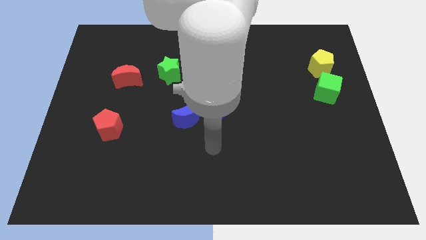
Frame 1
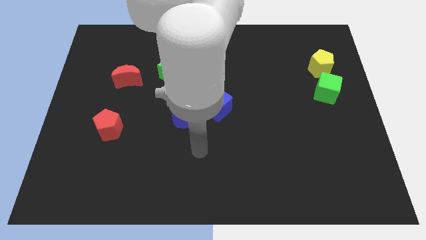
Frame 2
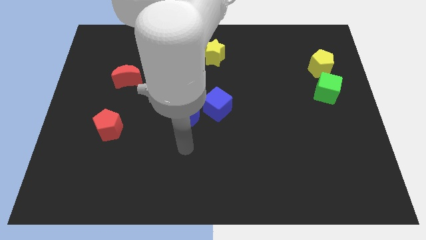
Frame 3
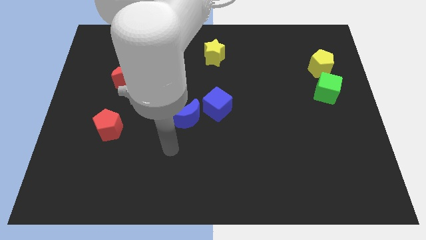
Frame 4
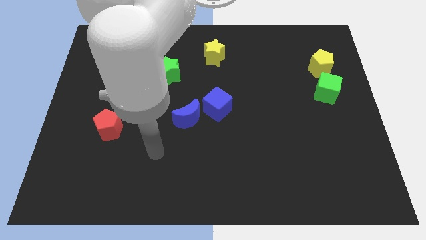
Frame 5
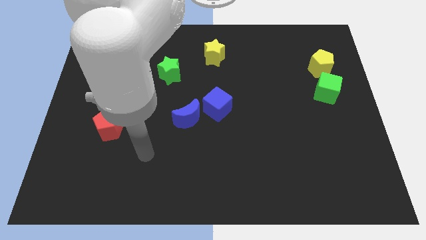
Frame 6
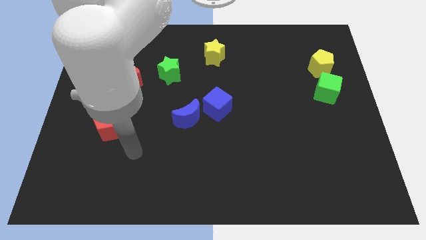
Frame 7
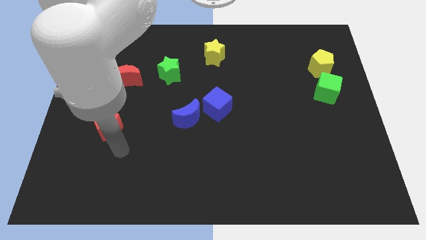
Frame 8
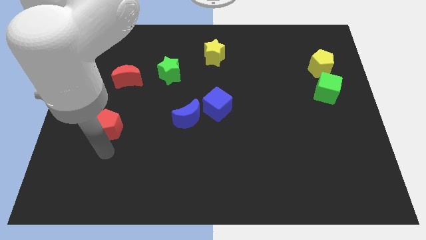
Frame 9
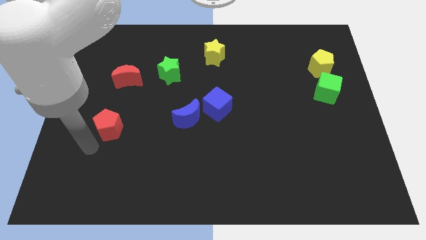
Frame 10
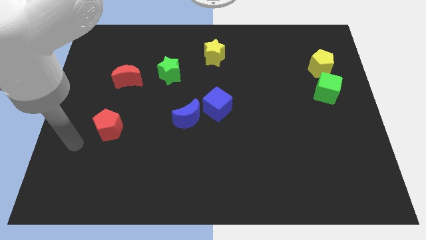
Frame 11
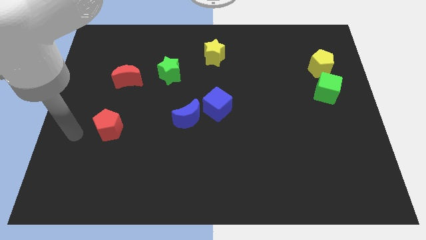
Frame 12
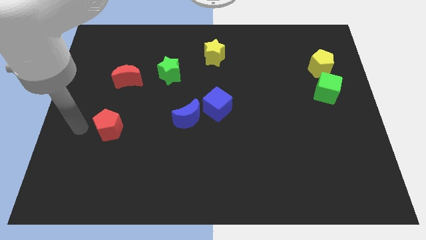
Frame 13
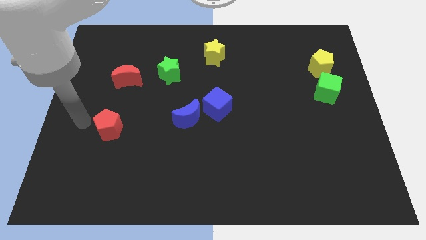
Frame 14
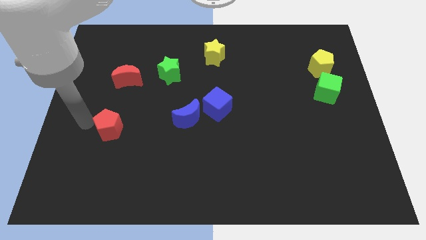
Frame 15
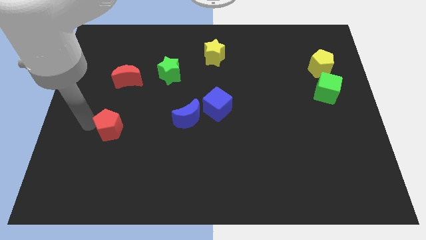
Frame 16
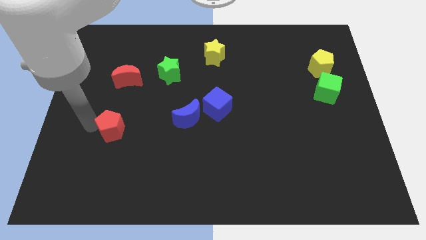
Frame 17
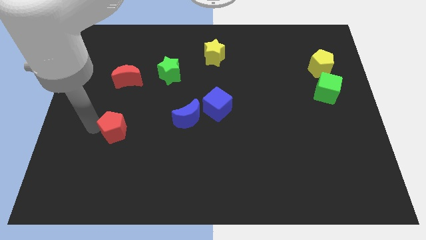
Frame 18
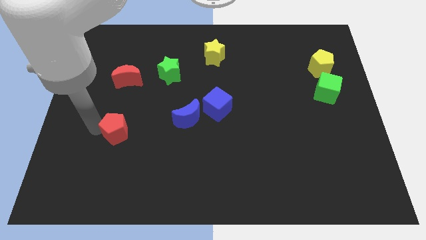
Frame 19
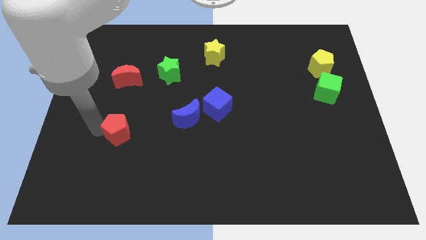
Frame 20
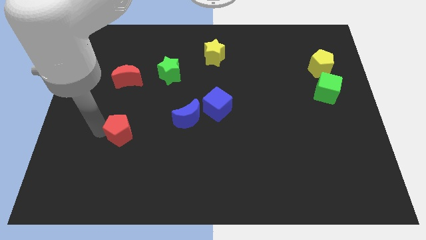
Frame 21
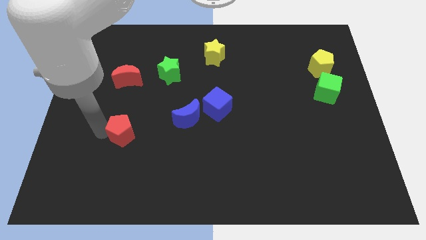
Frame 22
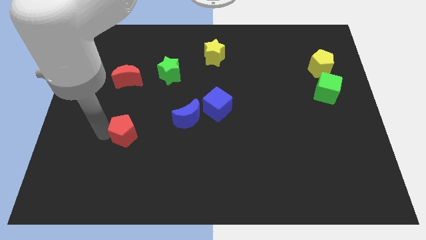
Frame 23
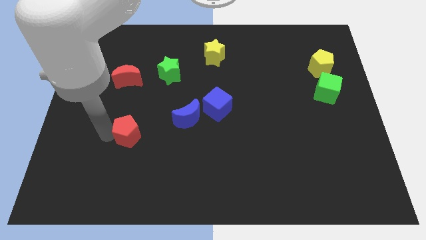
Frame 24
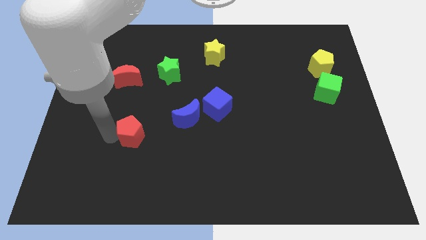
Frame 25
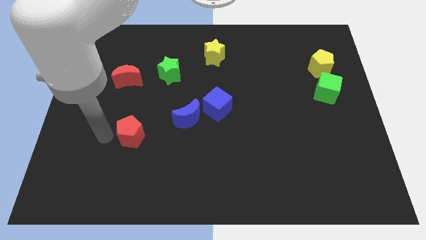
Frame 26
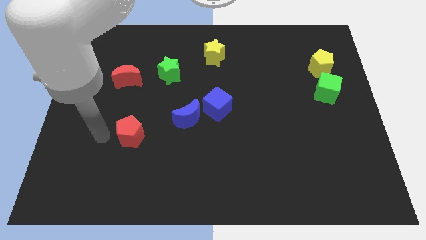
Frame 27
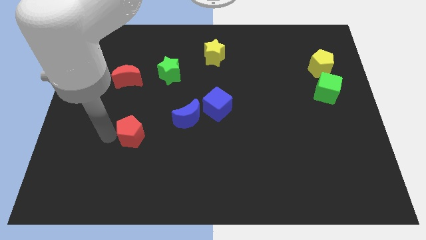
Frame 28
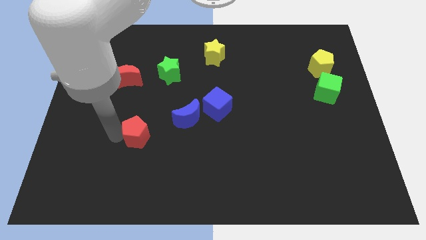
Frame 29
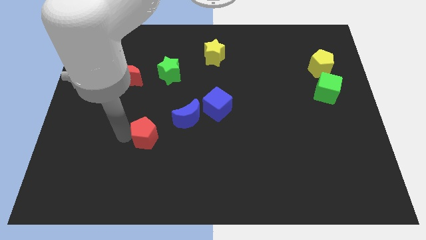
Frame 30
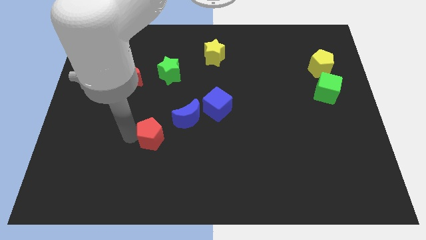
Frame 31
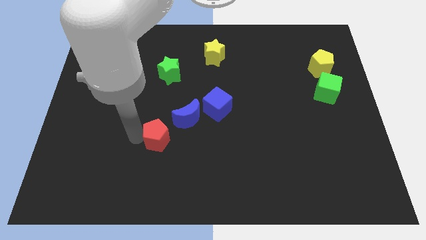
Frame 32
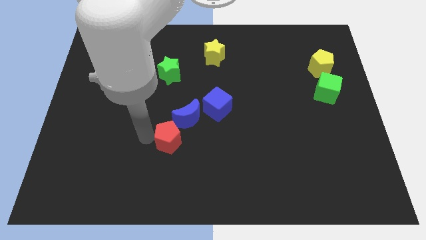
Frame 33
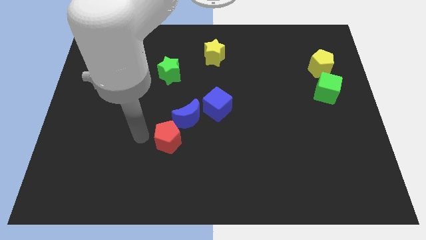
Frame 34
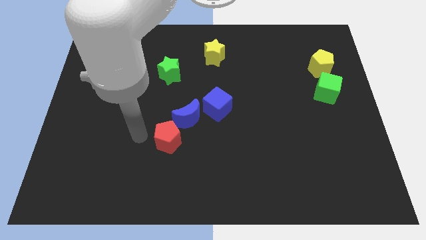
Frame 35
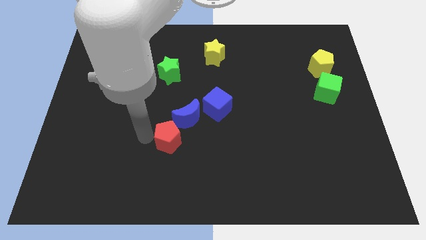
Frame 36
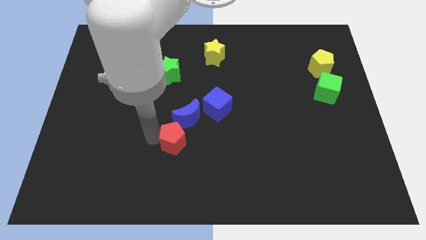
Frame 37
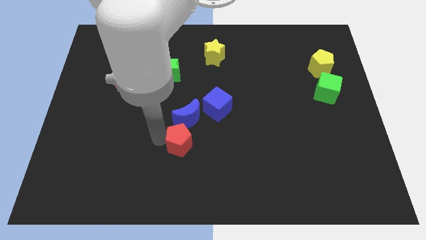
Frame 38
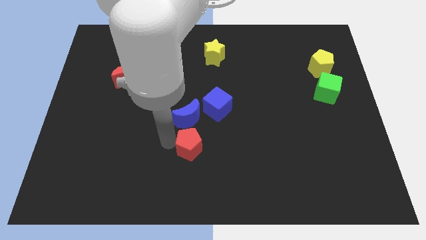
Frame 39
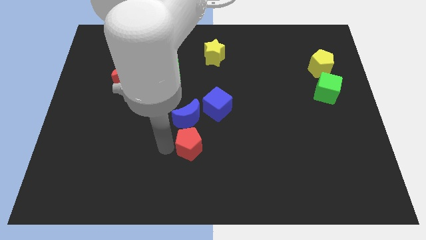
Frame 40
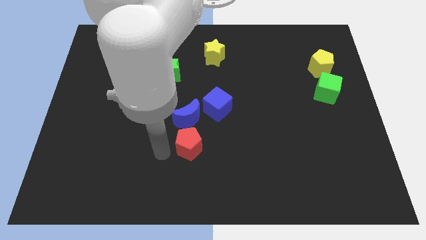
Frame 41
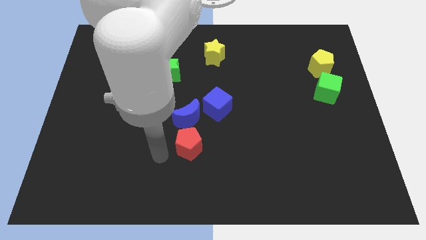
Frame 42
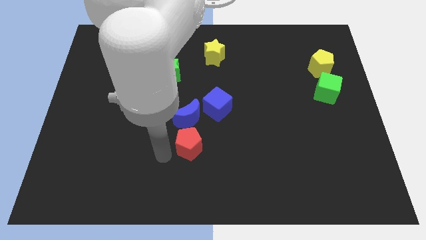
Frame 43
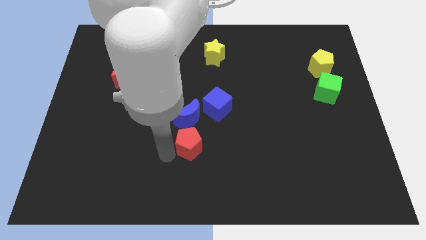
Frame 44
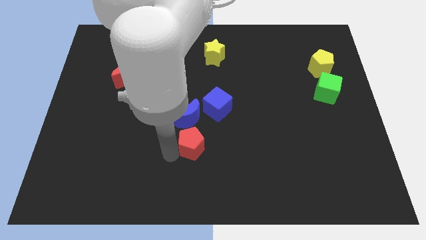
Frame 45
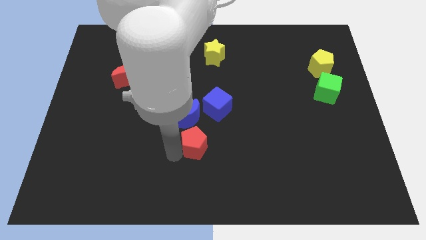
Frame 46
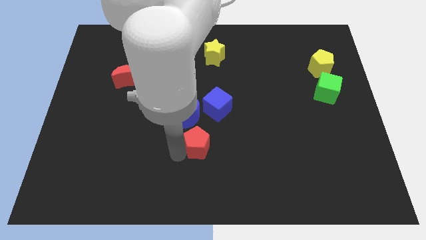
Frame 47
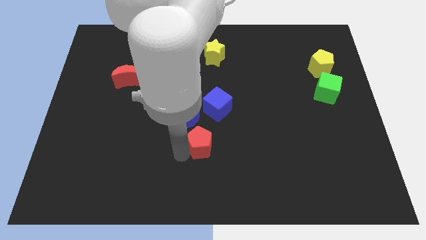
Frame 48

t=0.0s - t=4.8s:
slide the red pentagon right

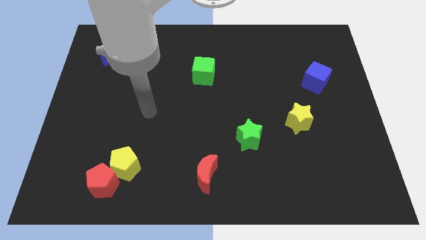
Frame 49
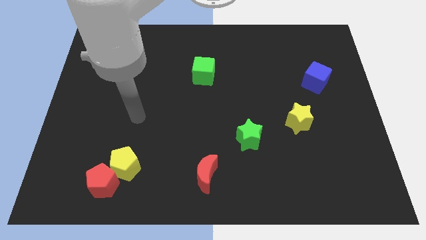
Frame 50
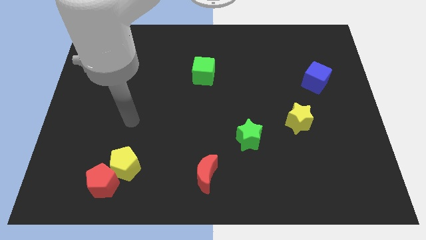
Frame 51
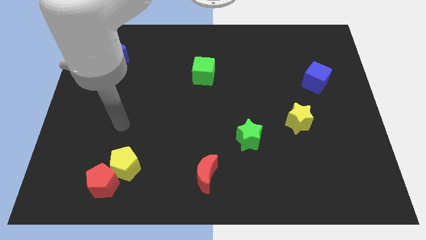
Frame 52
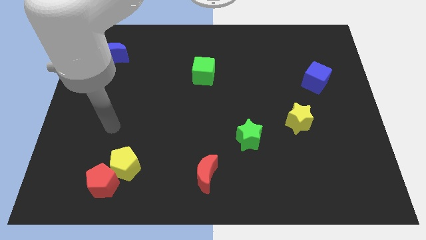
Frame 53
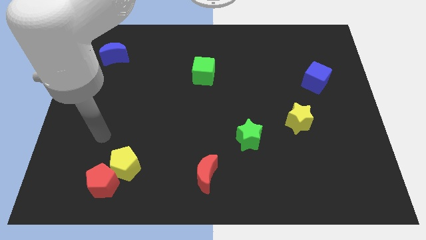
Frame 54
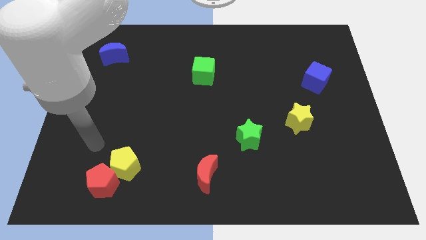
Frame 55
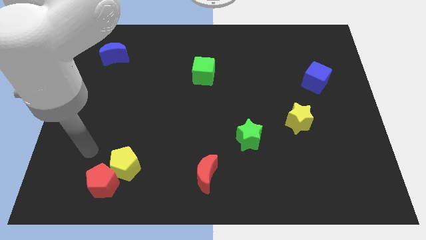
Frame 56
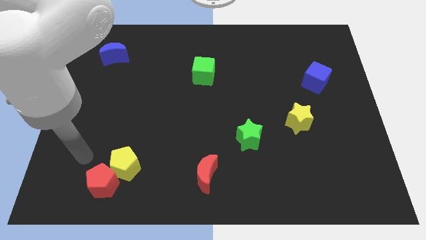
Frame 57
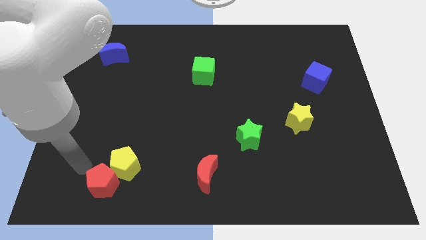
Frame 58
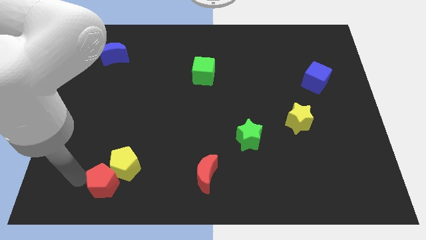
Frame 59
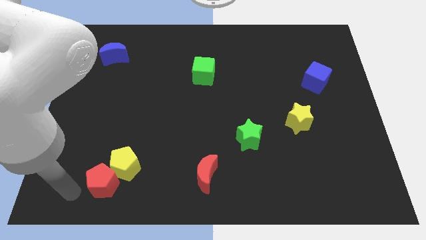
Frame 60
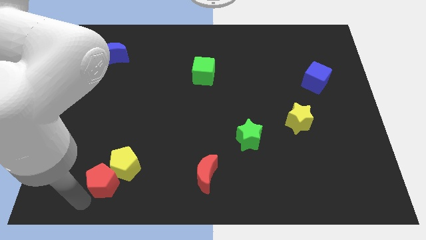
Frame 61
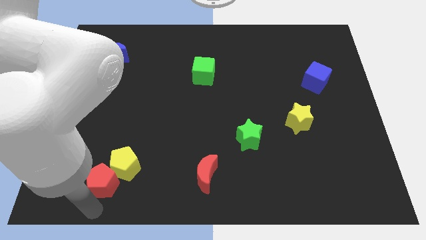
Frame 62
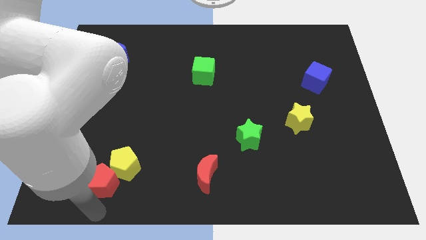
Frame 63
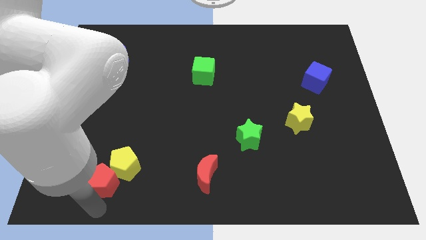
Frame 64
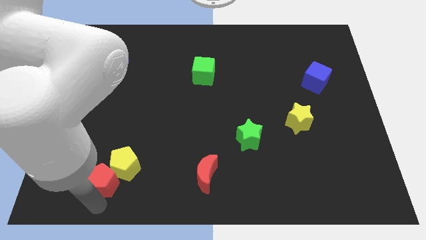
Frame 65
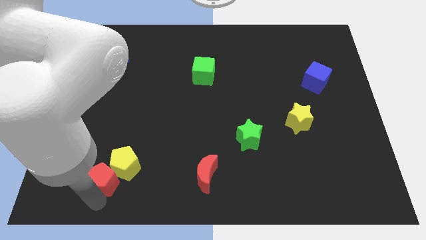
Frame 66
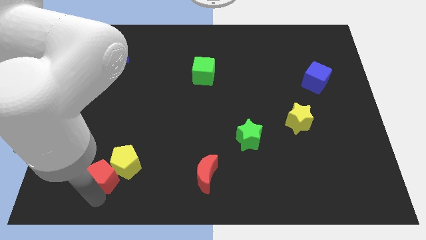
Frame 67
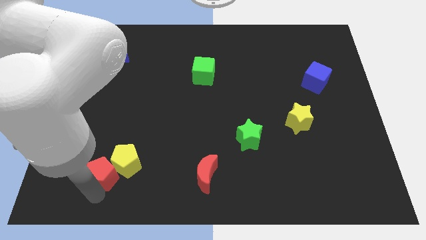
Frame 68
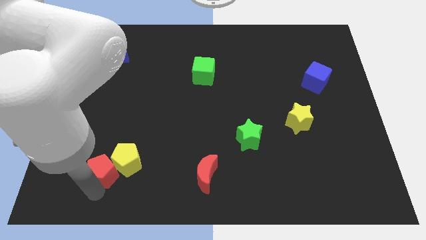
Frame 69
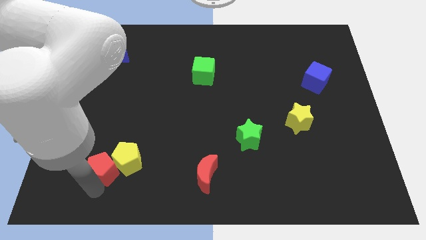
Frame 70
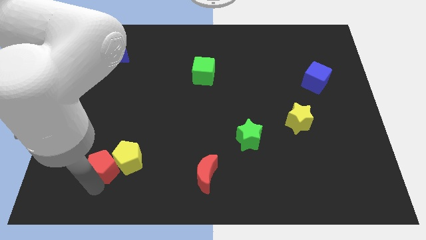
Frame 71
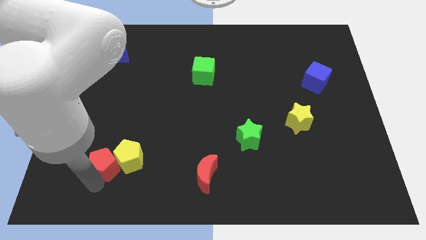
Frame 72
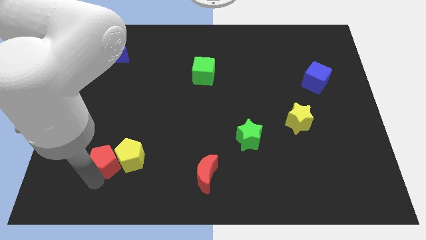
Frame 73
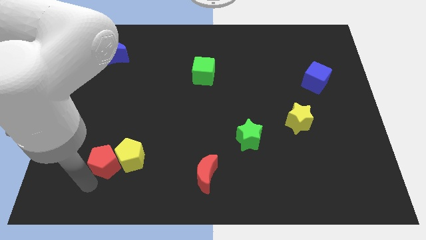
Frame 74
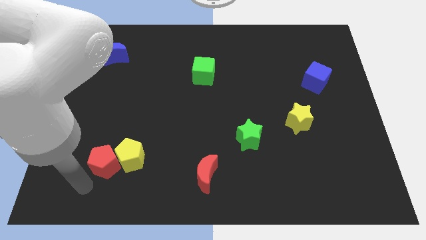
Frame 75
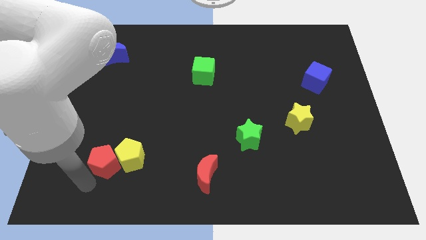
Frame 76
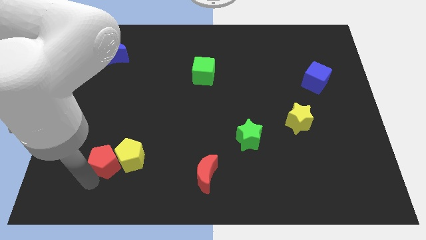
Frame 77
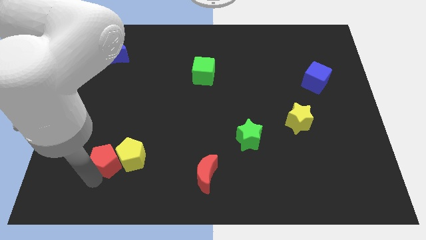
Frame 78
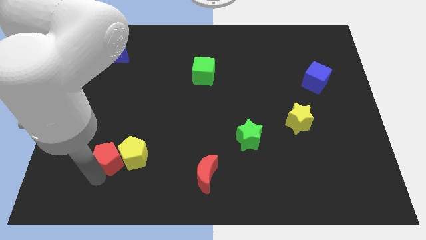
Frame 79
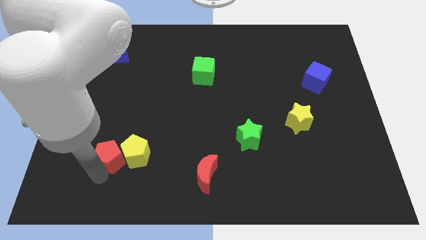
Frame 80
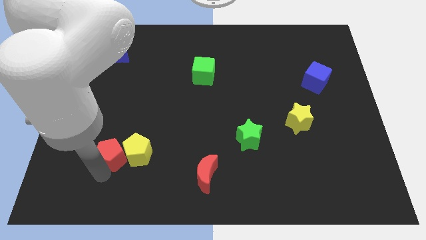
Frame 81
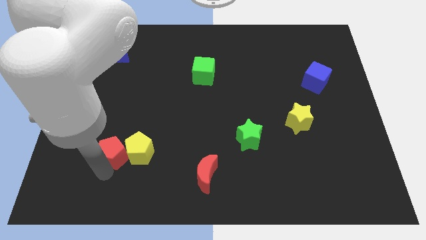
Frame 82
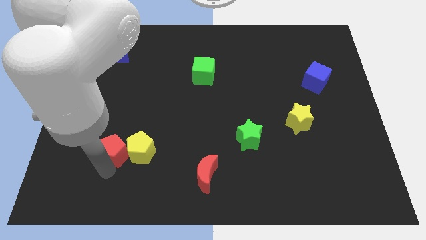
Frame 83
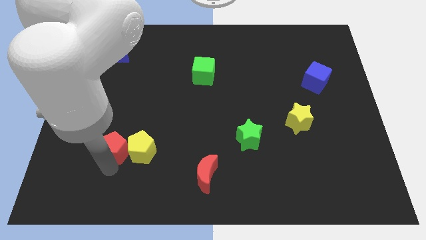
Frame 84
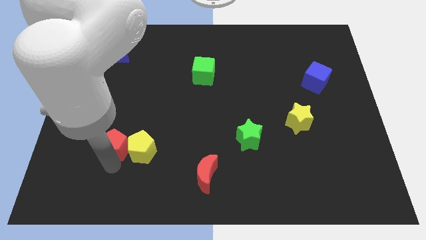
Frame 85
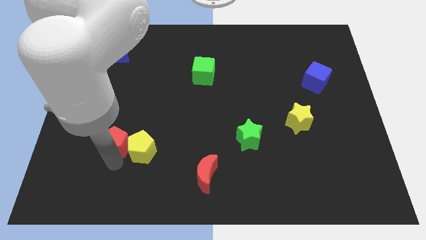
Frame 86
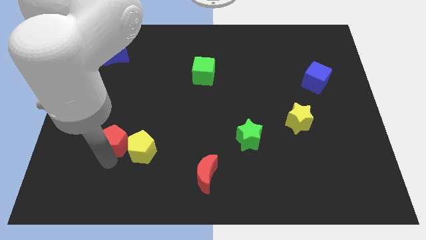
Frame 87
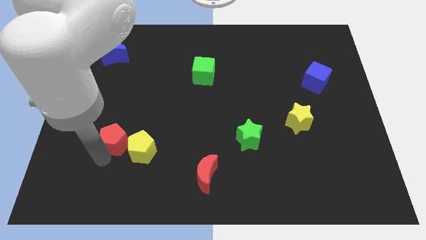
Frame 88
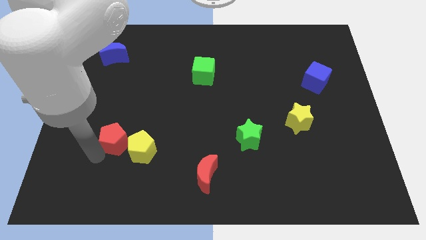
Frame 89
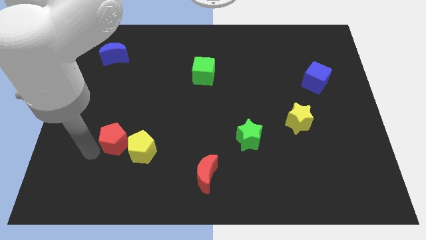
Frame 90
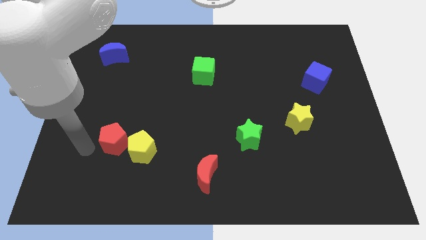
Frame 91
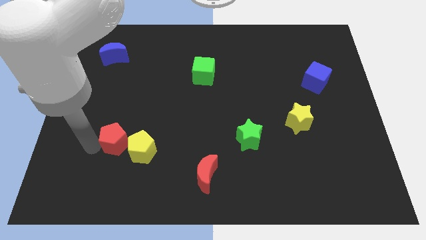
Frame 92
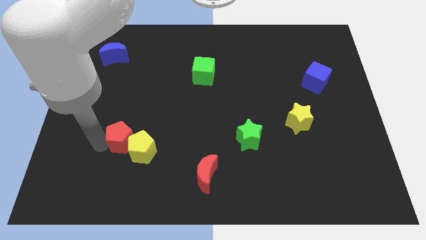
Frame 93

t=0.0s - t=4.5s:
move the red pentagon a bit upwards and to the right
